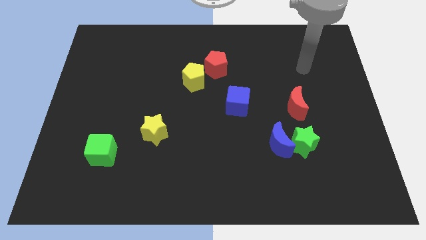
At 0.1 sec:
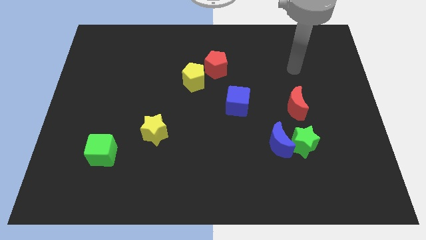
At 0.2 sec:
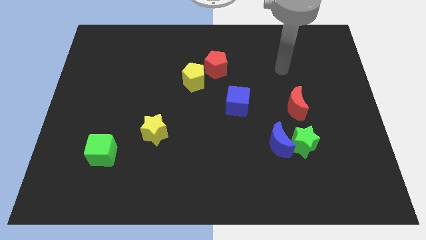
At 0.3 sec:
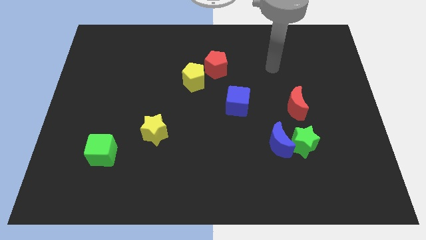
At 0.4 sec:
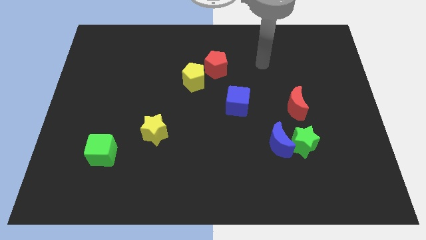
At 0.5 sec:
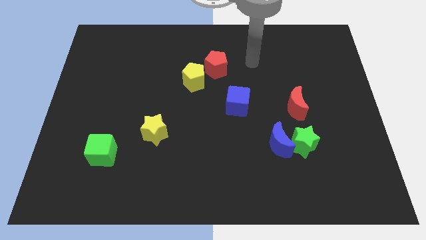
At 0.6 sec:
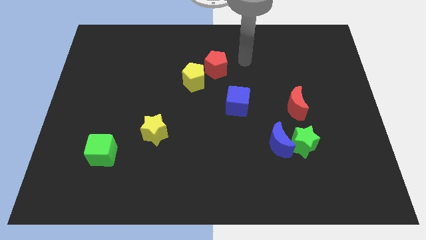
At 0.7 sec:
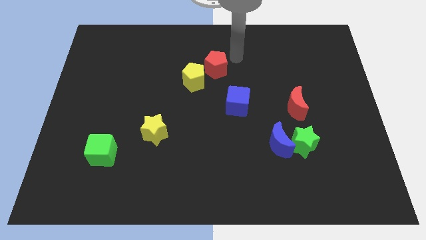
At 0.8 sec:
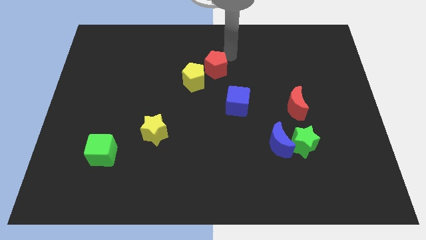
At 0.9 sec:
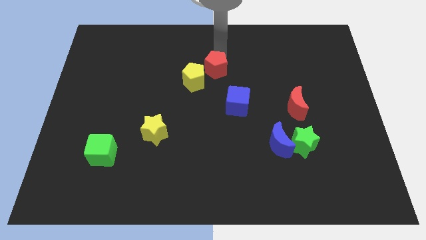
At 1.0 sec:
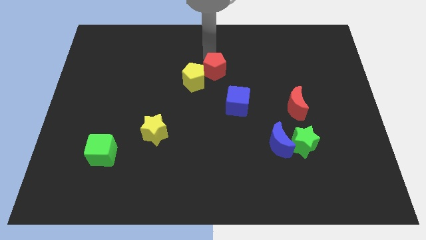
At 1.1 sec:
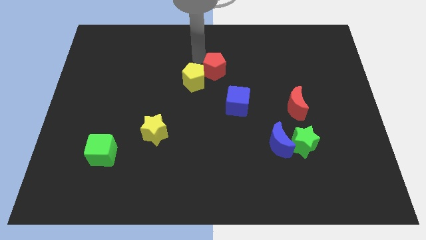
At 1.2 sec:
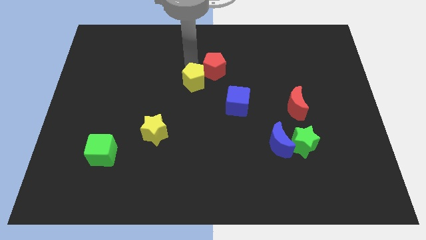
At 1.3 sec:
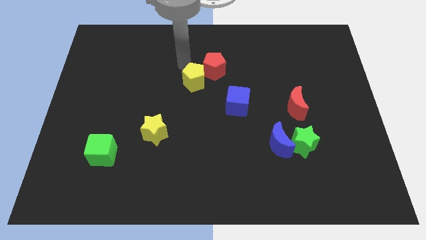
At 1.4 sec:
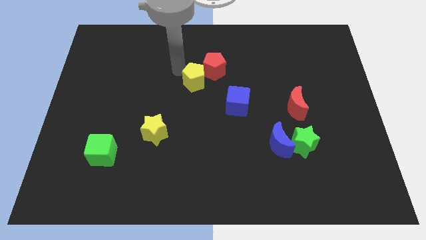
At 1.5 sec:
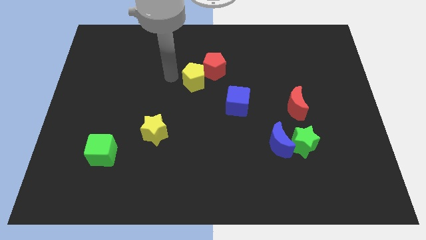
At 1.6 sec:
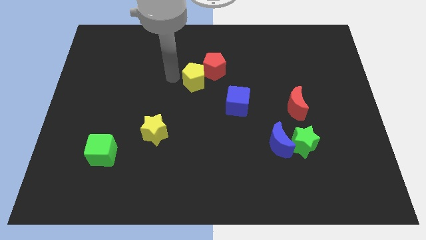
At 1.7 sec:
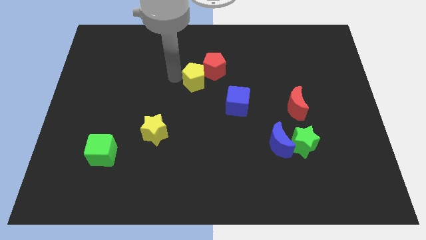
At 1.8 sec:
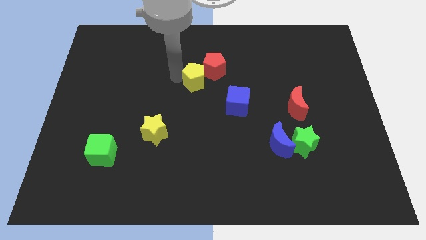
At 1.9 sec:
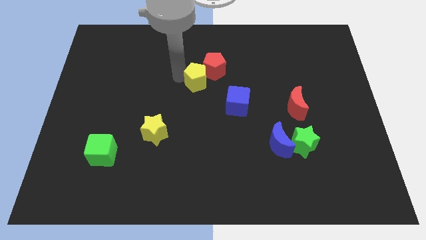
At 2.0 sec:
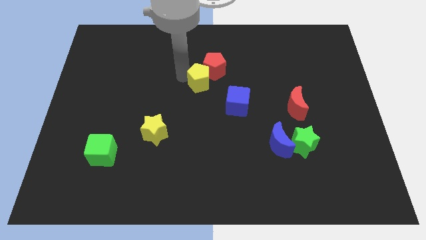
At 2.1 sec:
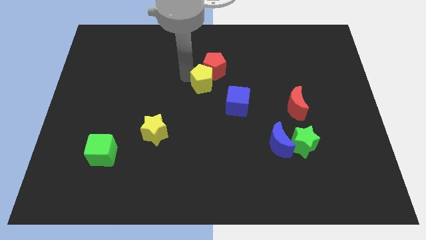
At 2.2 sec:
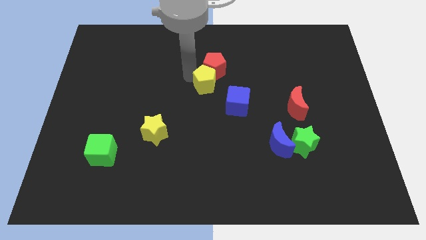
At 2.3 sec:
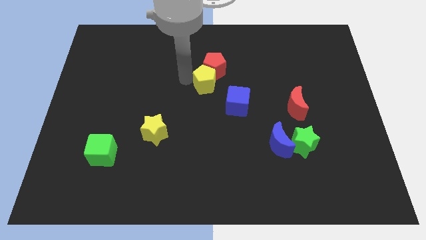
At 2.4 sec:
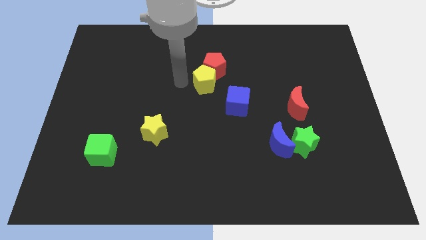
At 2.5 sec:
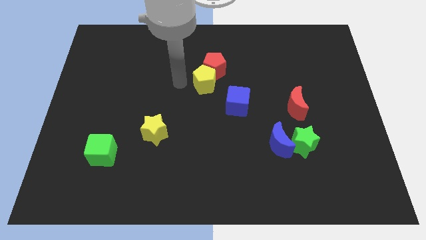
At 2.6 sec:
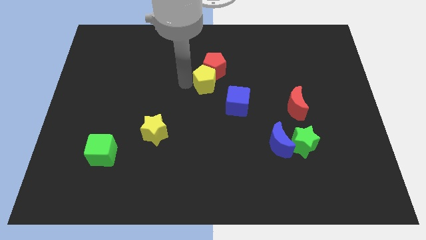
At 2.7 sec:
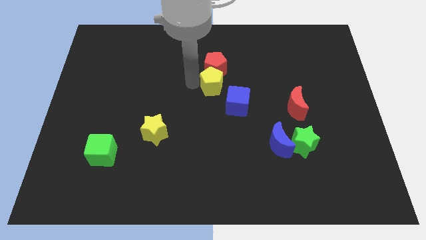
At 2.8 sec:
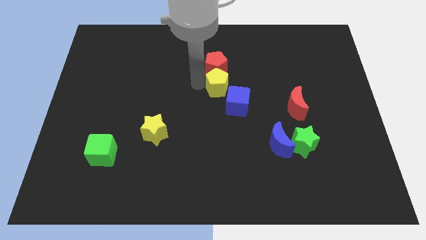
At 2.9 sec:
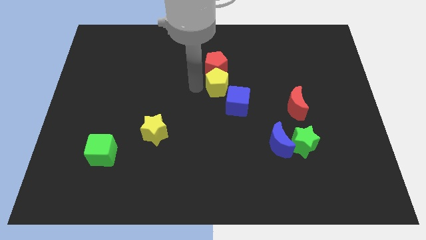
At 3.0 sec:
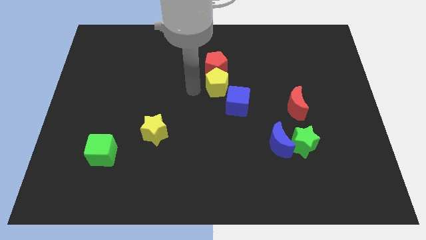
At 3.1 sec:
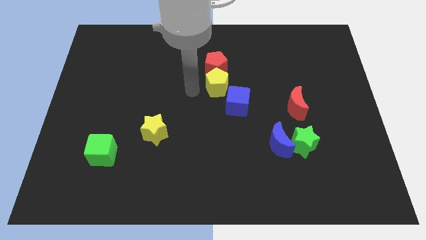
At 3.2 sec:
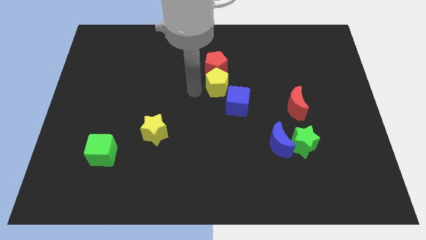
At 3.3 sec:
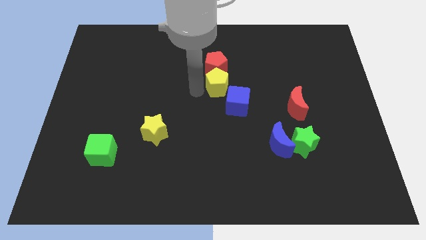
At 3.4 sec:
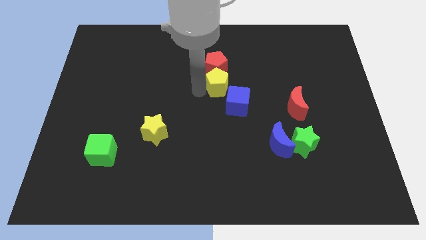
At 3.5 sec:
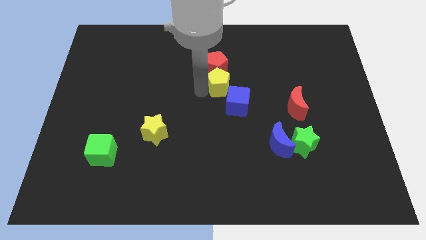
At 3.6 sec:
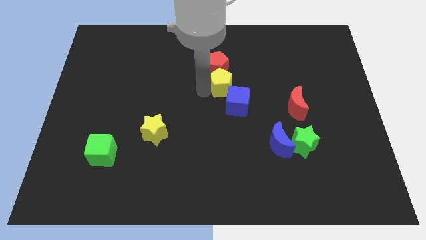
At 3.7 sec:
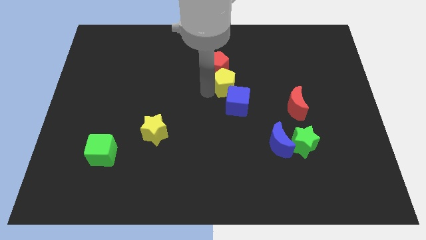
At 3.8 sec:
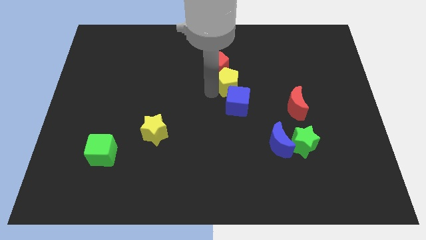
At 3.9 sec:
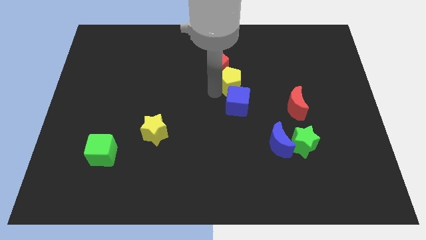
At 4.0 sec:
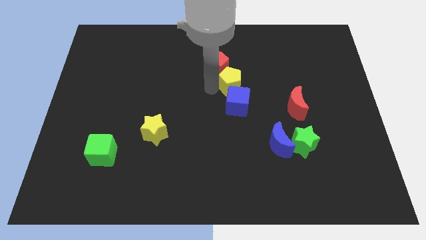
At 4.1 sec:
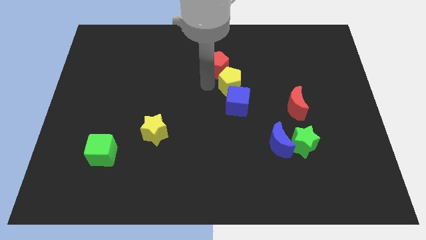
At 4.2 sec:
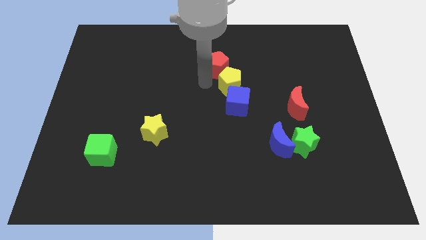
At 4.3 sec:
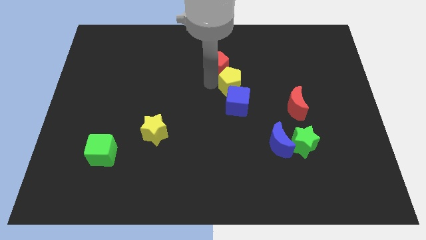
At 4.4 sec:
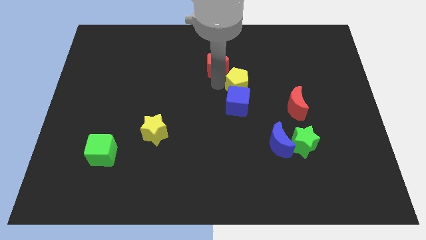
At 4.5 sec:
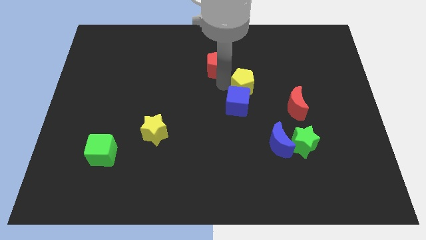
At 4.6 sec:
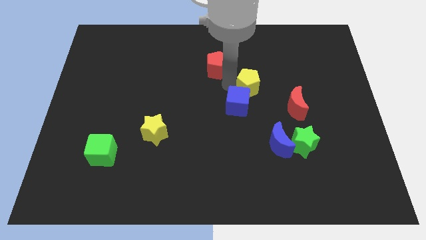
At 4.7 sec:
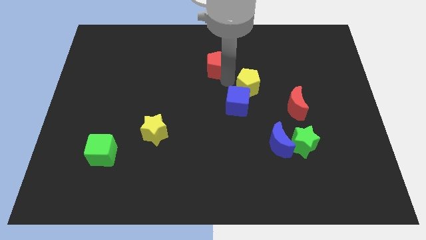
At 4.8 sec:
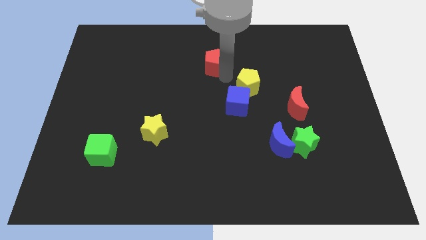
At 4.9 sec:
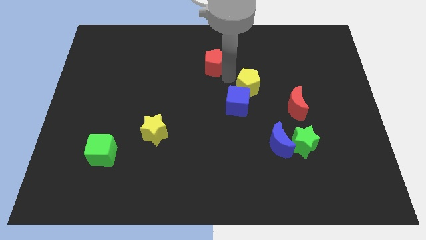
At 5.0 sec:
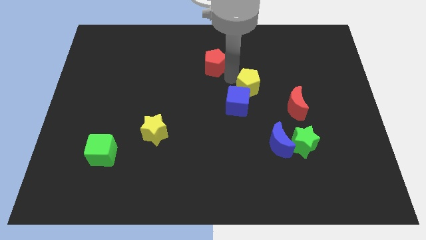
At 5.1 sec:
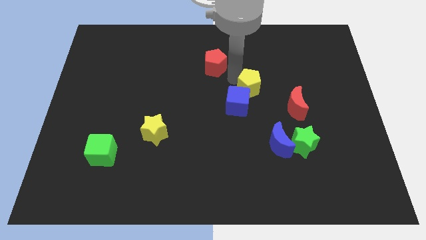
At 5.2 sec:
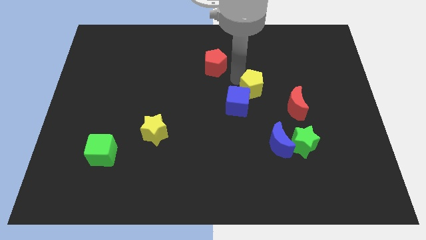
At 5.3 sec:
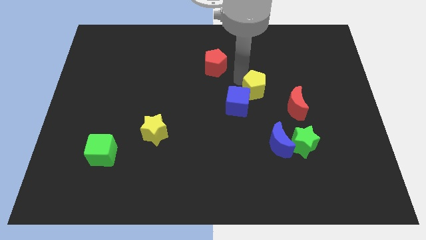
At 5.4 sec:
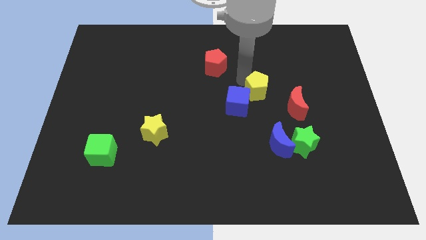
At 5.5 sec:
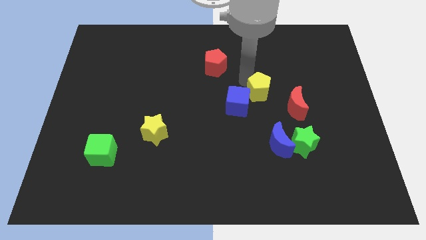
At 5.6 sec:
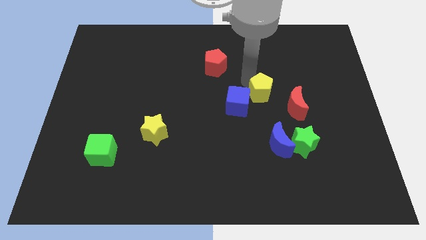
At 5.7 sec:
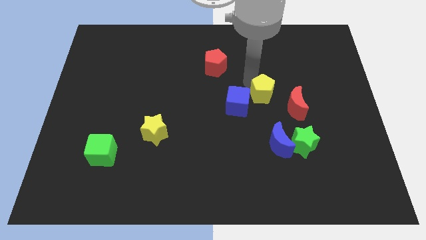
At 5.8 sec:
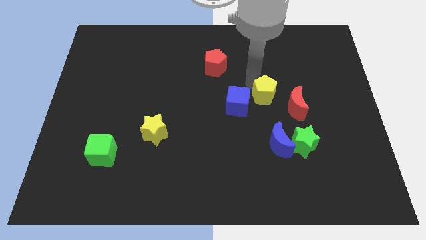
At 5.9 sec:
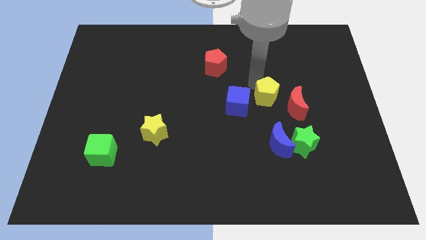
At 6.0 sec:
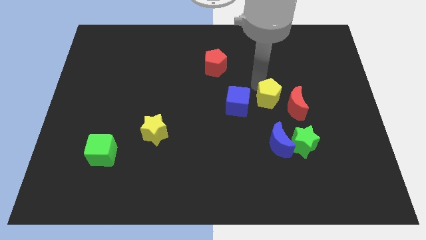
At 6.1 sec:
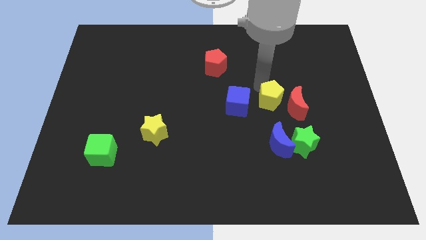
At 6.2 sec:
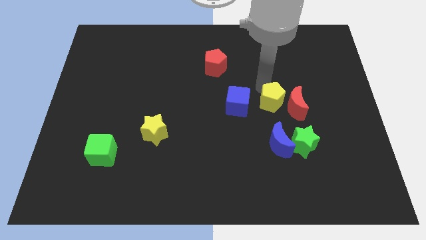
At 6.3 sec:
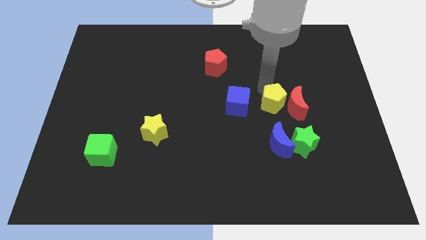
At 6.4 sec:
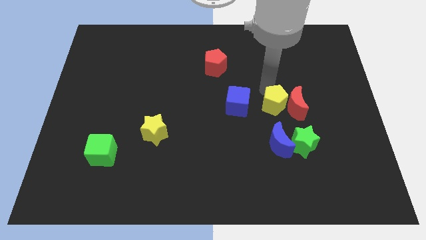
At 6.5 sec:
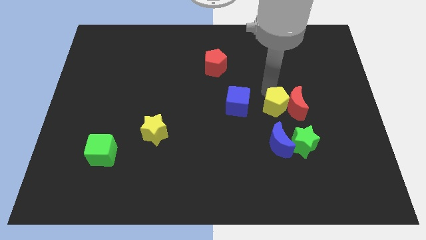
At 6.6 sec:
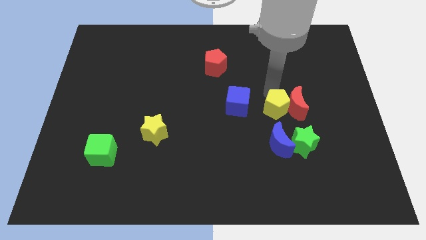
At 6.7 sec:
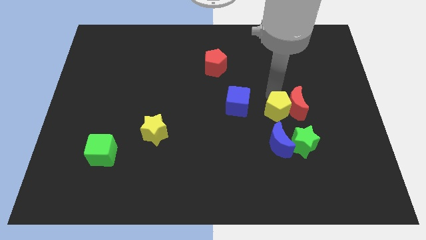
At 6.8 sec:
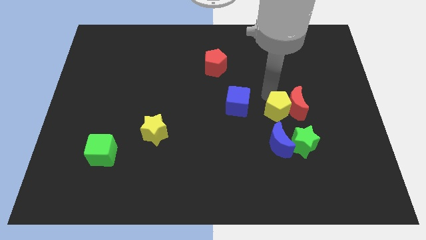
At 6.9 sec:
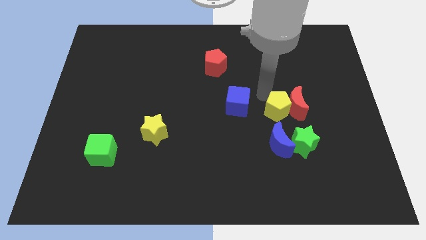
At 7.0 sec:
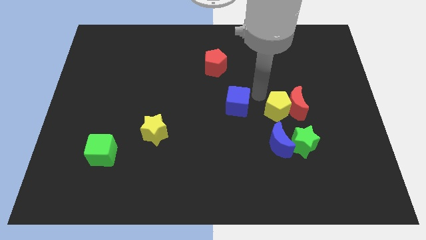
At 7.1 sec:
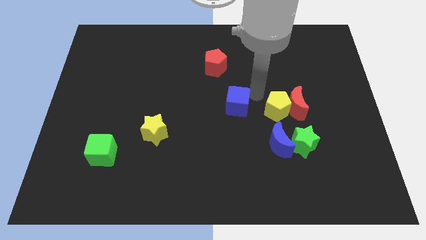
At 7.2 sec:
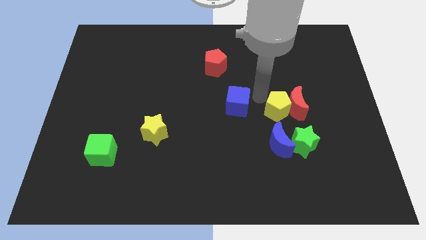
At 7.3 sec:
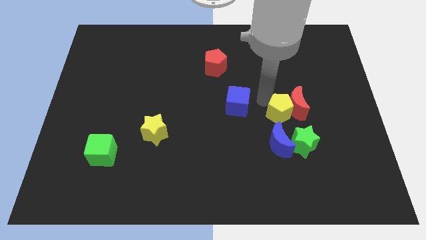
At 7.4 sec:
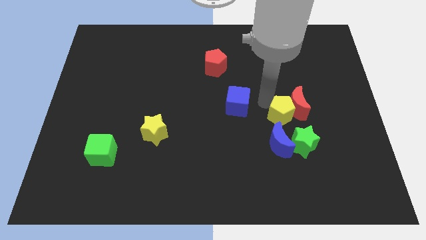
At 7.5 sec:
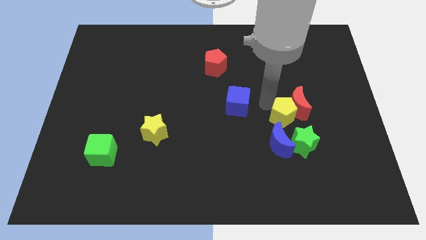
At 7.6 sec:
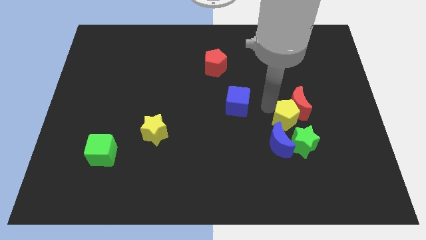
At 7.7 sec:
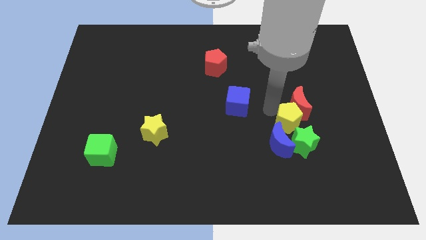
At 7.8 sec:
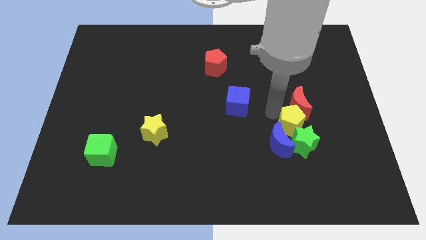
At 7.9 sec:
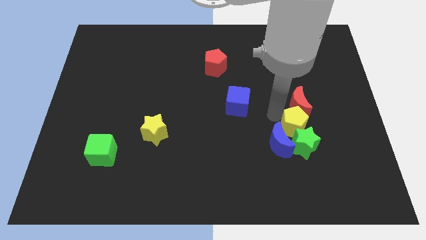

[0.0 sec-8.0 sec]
put the yellow pentagon to the bottom right of the red moon
